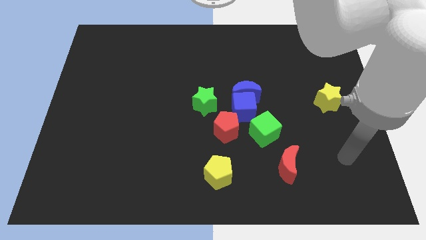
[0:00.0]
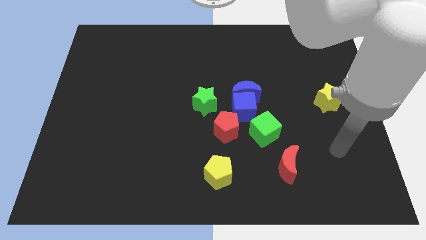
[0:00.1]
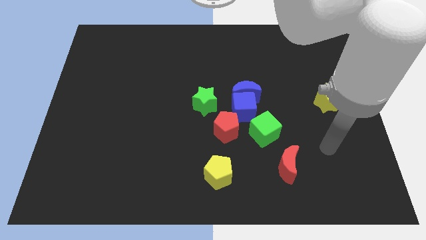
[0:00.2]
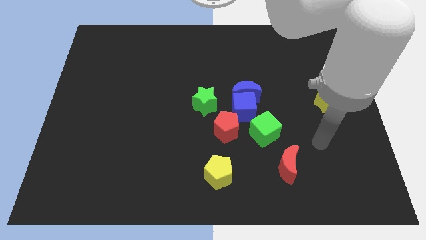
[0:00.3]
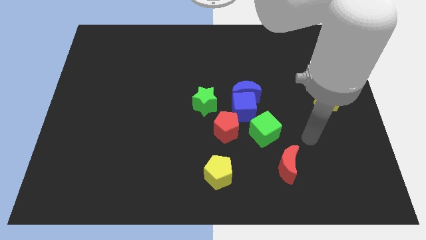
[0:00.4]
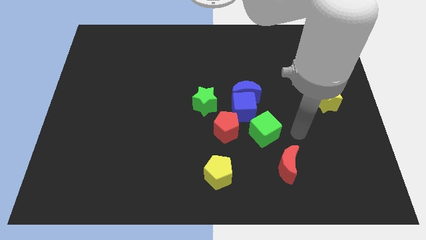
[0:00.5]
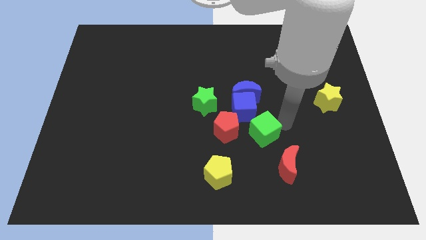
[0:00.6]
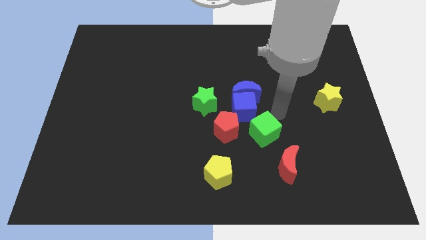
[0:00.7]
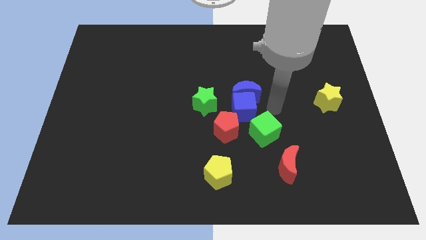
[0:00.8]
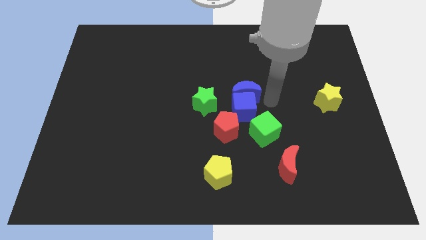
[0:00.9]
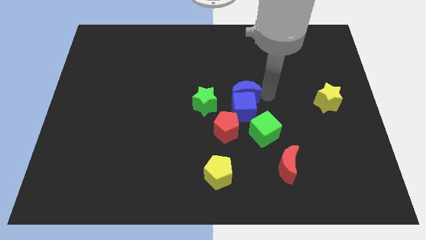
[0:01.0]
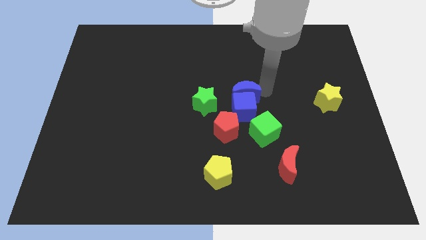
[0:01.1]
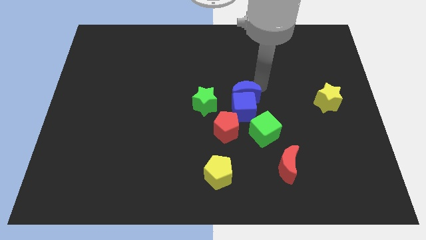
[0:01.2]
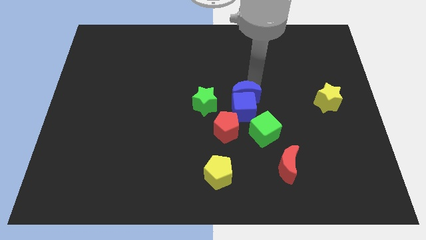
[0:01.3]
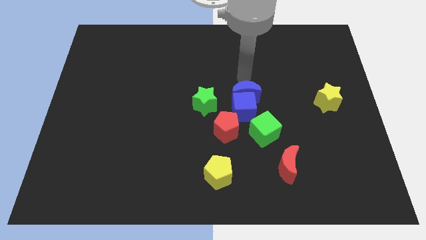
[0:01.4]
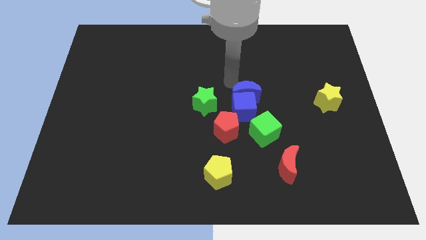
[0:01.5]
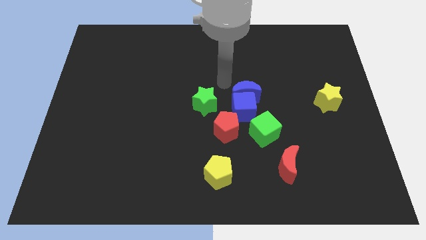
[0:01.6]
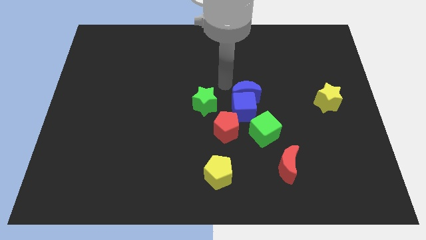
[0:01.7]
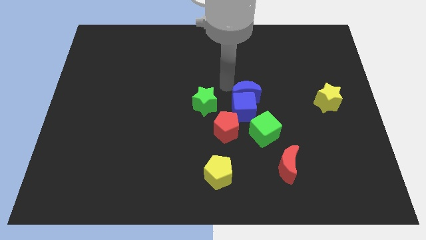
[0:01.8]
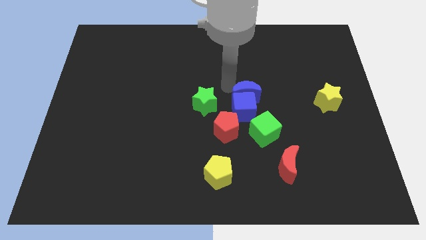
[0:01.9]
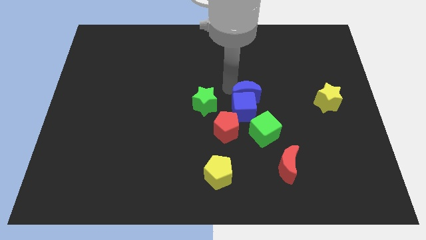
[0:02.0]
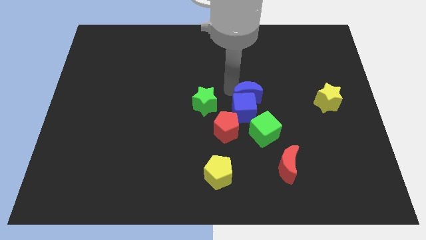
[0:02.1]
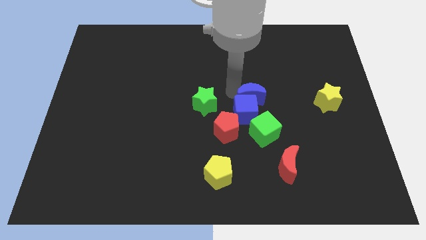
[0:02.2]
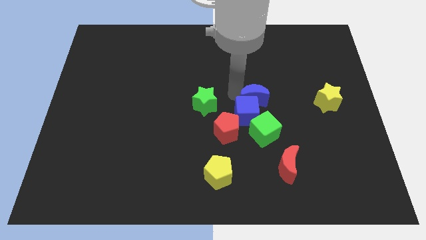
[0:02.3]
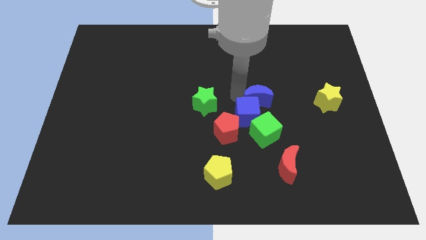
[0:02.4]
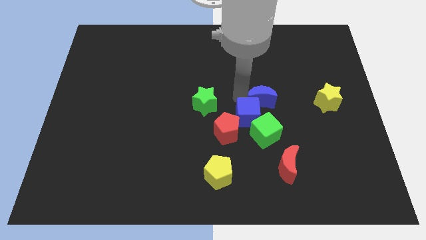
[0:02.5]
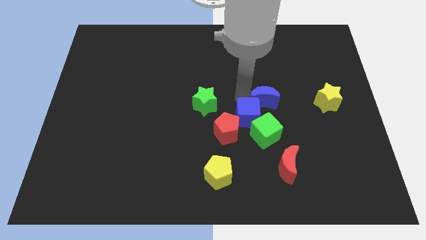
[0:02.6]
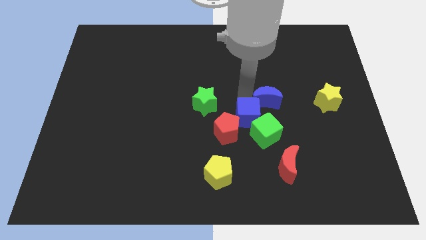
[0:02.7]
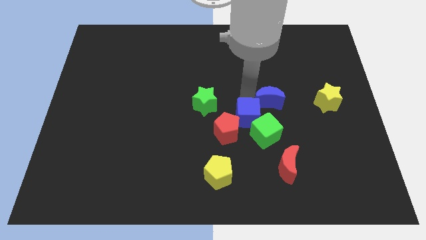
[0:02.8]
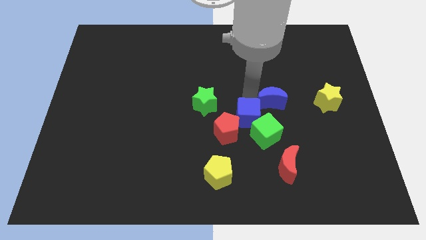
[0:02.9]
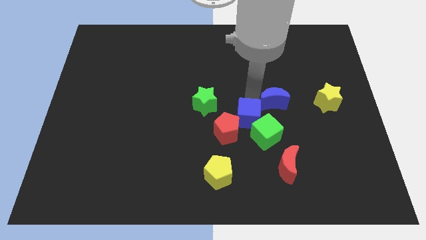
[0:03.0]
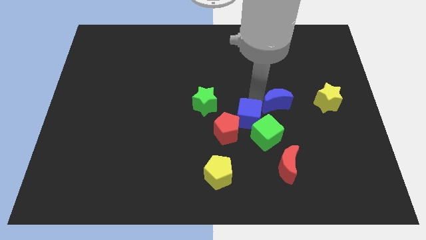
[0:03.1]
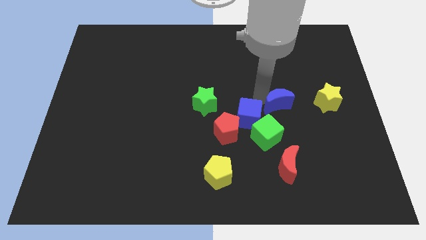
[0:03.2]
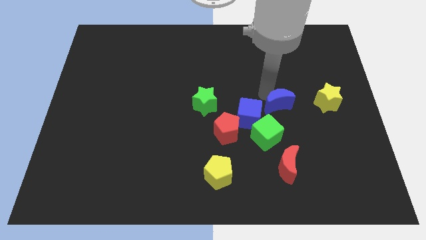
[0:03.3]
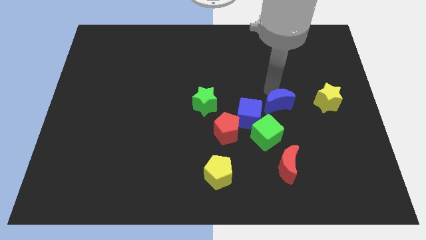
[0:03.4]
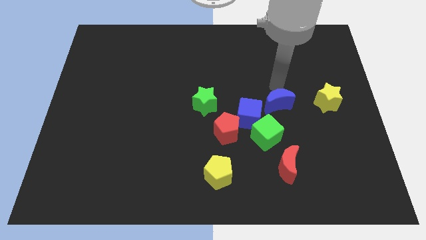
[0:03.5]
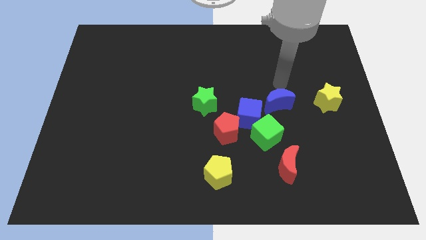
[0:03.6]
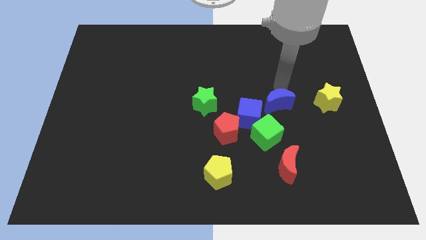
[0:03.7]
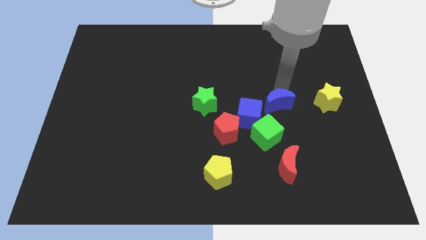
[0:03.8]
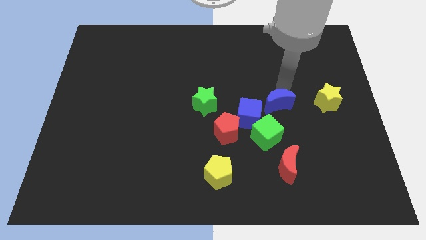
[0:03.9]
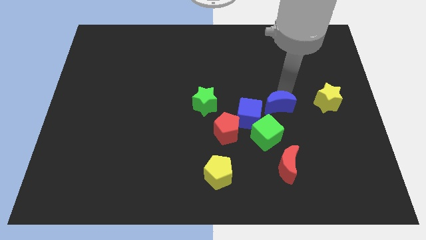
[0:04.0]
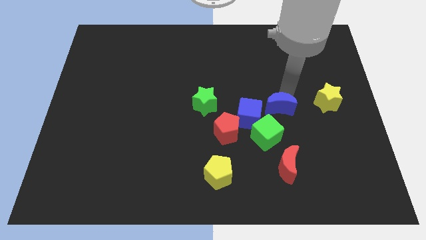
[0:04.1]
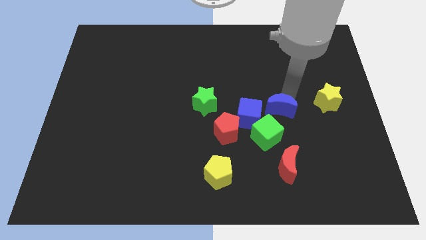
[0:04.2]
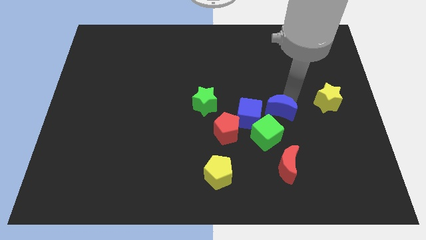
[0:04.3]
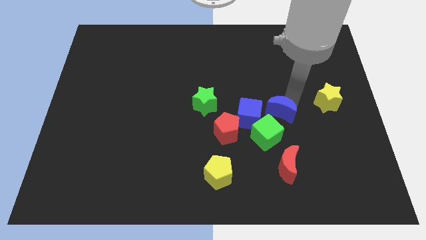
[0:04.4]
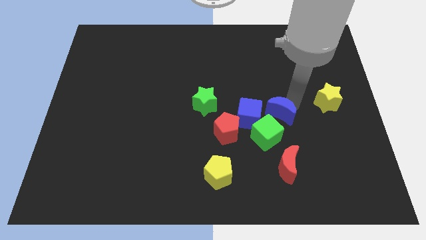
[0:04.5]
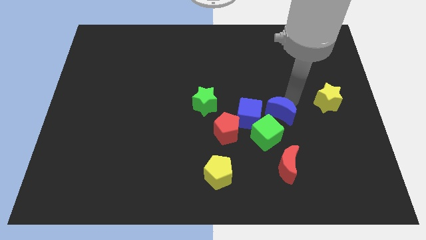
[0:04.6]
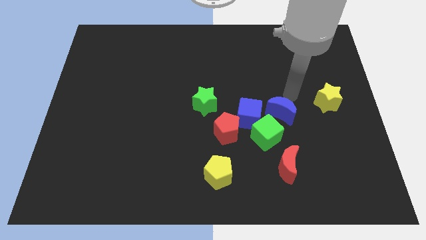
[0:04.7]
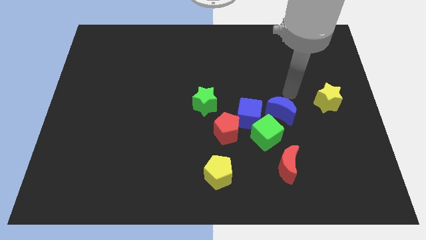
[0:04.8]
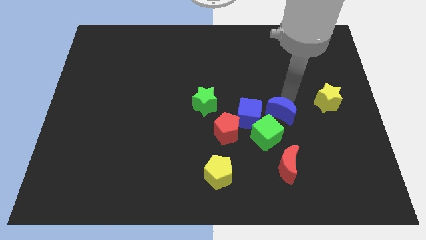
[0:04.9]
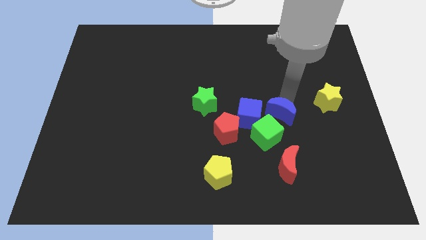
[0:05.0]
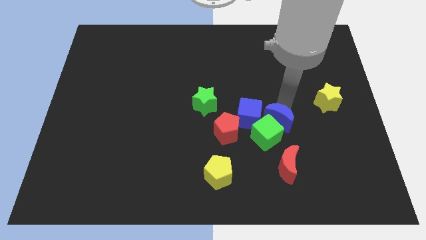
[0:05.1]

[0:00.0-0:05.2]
slide the blue moon just right of the red pentagon

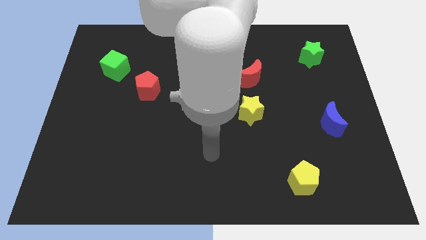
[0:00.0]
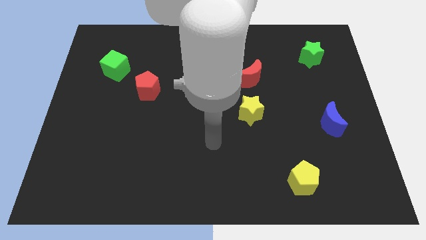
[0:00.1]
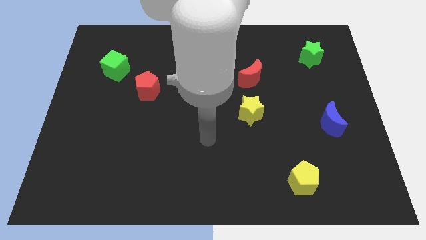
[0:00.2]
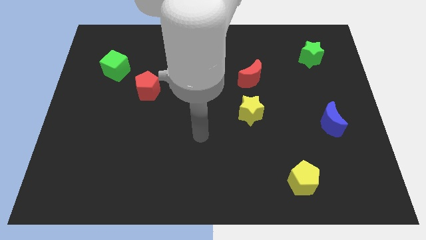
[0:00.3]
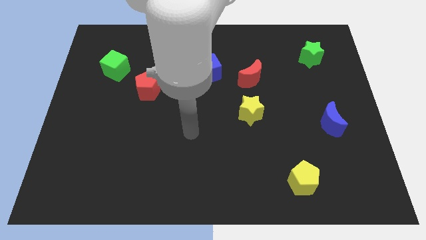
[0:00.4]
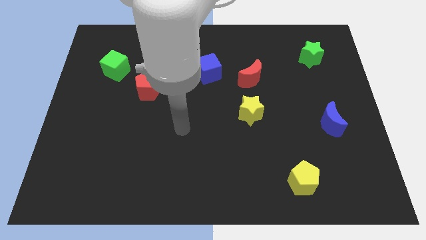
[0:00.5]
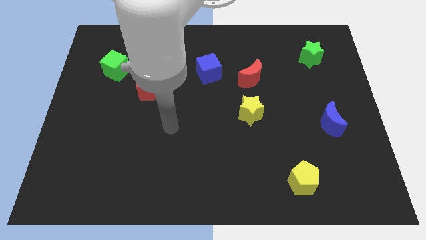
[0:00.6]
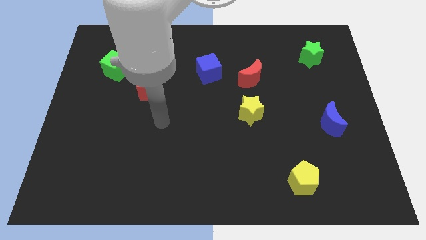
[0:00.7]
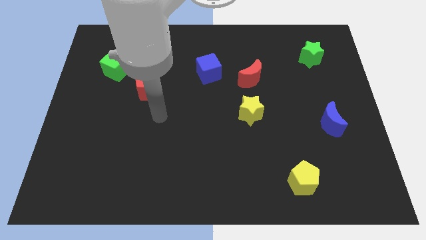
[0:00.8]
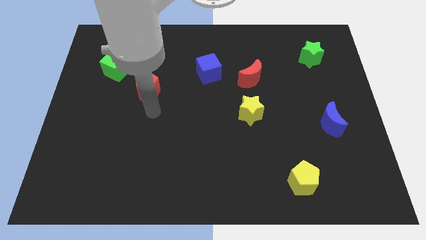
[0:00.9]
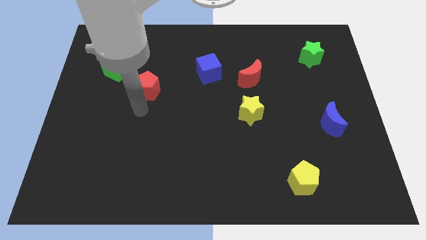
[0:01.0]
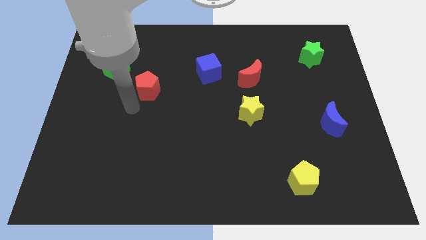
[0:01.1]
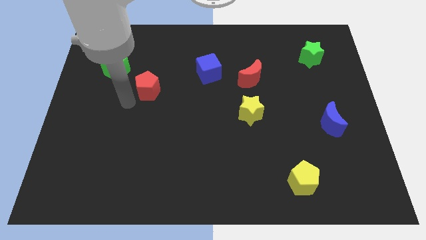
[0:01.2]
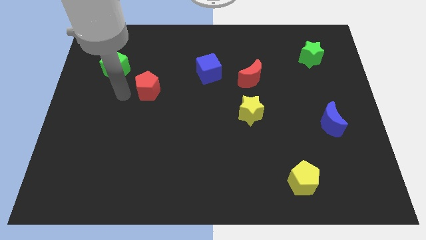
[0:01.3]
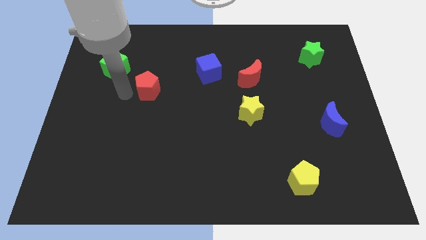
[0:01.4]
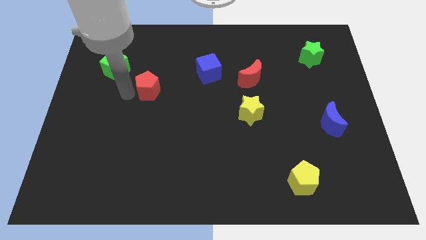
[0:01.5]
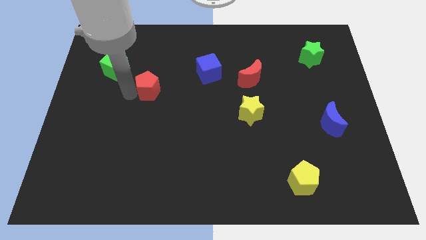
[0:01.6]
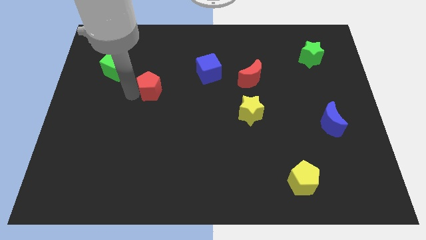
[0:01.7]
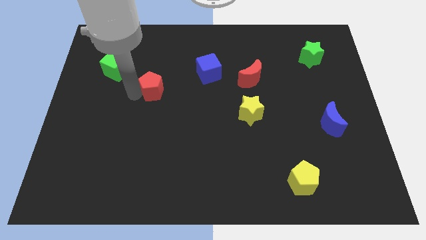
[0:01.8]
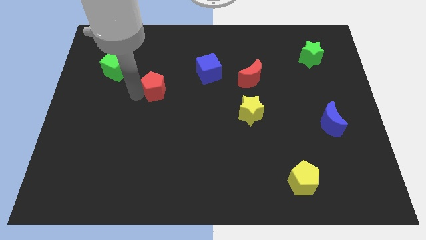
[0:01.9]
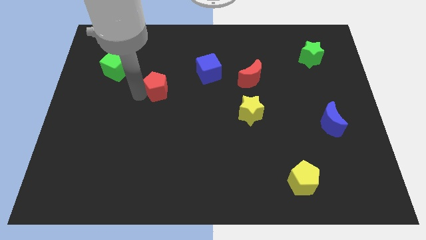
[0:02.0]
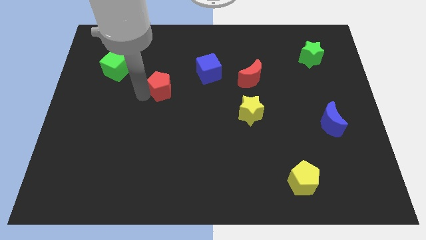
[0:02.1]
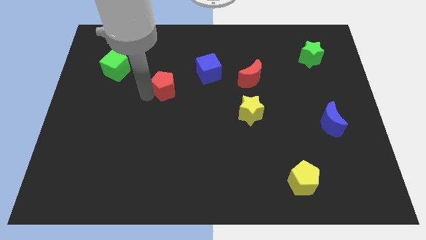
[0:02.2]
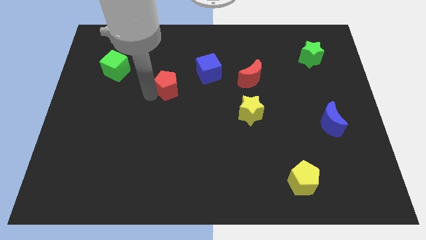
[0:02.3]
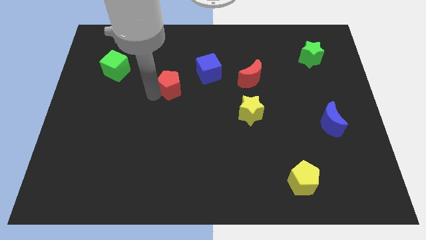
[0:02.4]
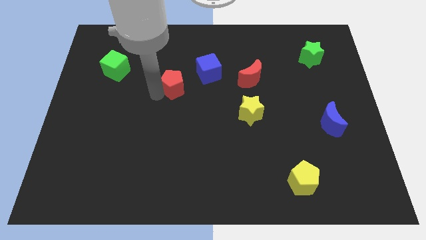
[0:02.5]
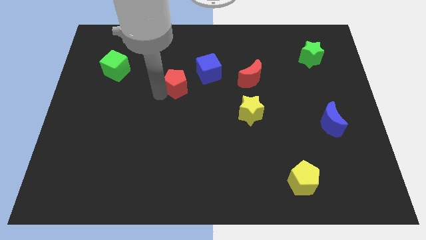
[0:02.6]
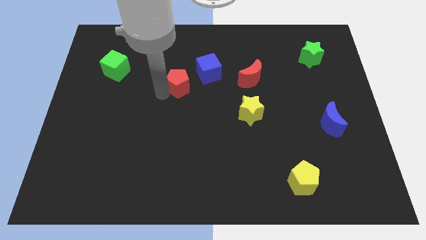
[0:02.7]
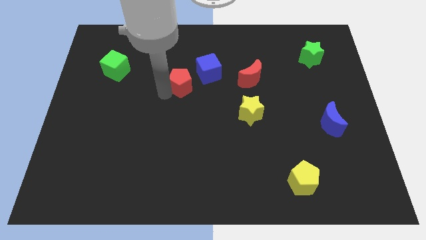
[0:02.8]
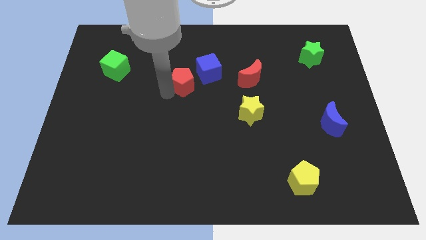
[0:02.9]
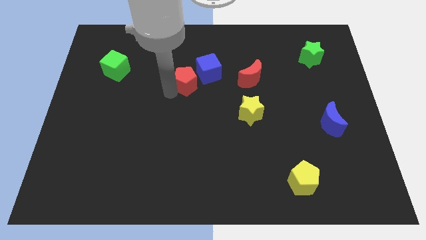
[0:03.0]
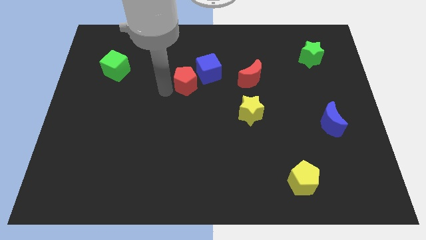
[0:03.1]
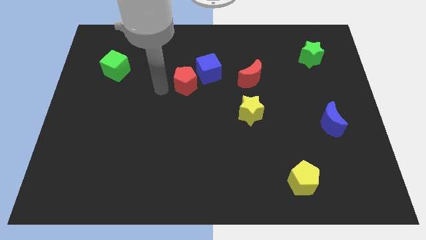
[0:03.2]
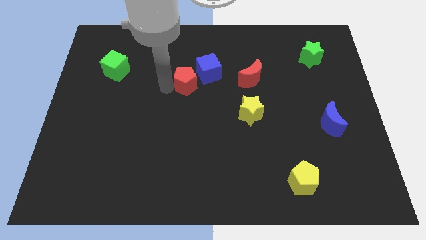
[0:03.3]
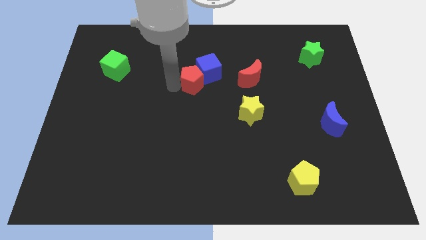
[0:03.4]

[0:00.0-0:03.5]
slide the red pentagon just left of the red moon
